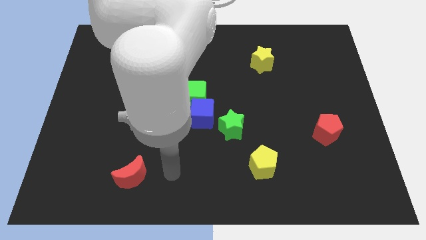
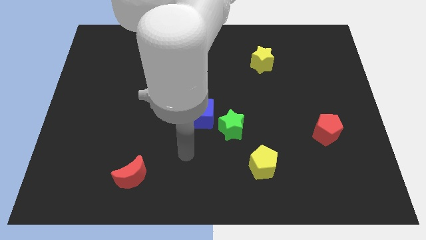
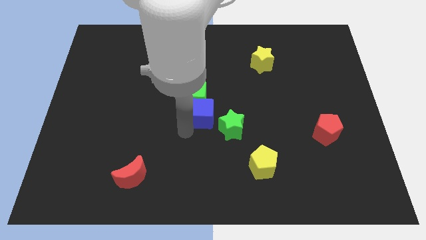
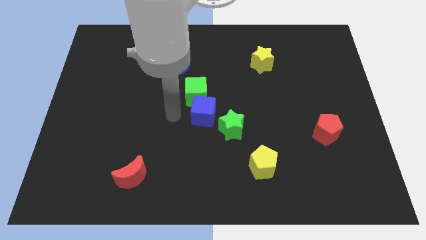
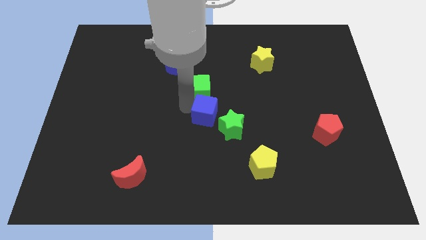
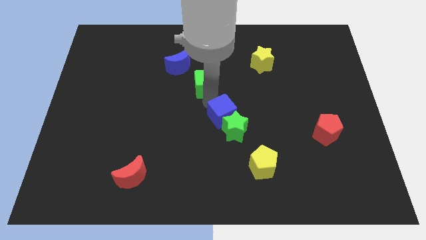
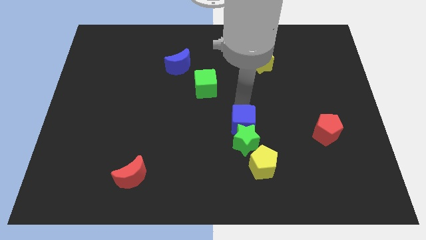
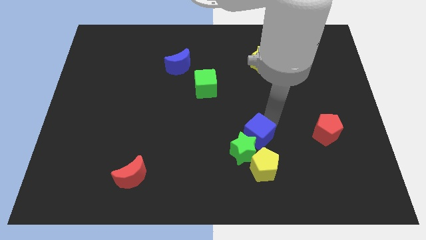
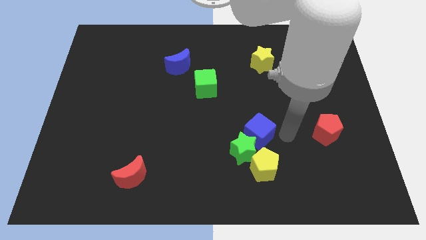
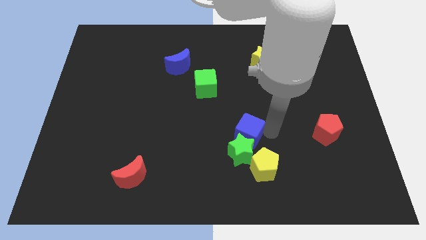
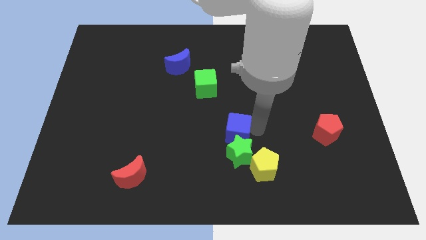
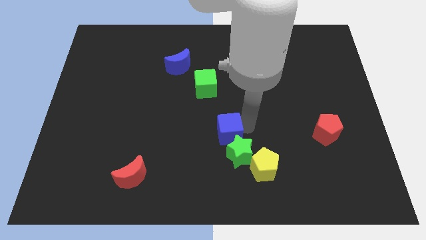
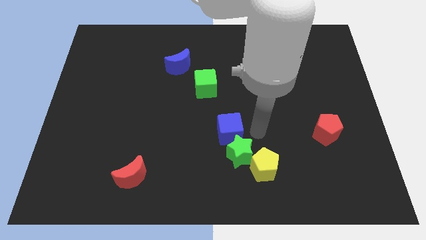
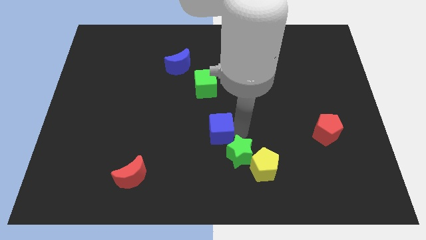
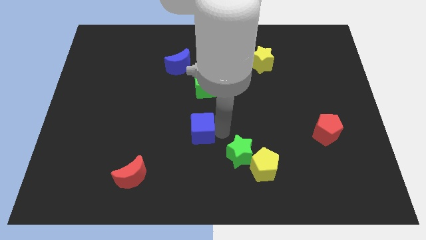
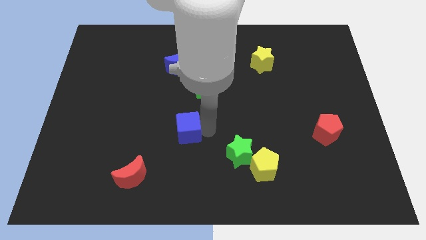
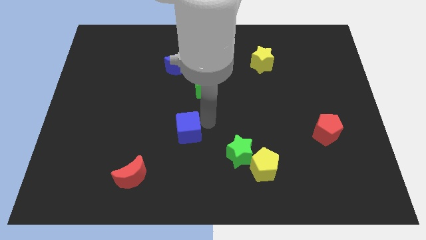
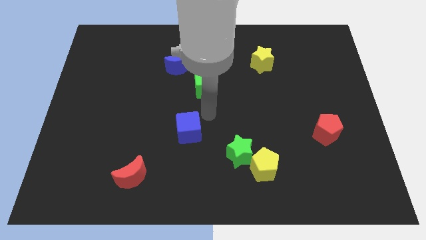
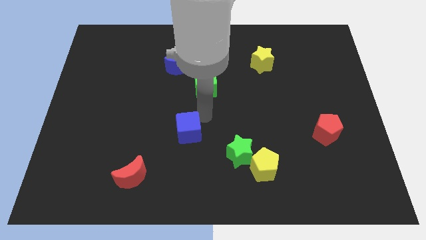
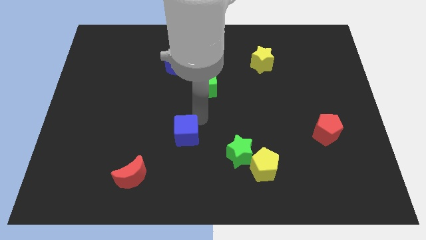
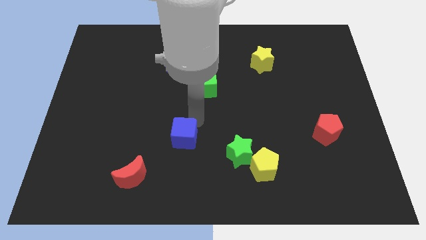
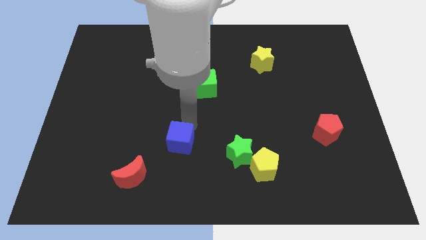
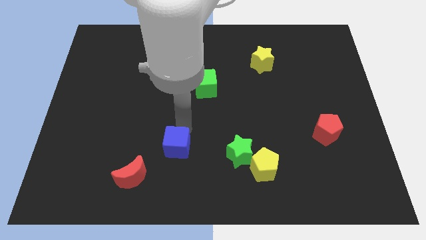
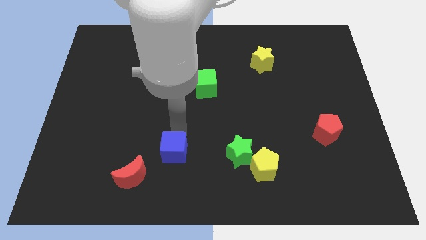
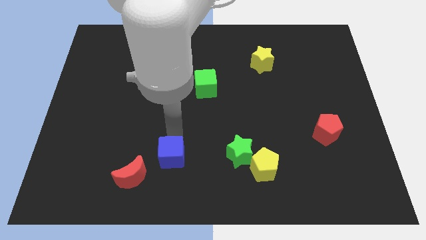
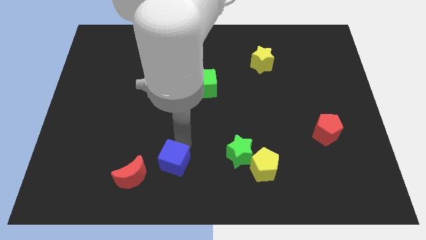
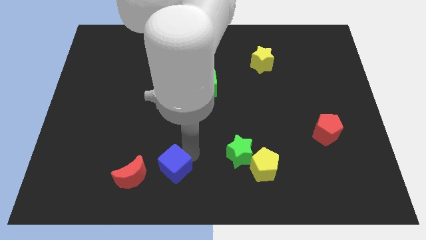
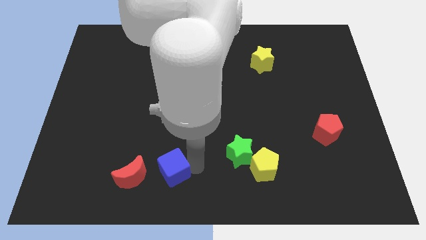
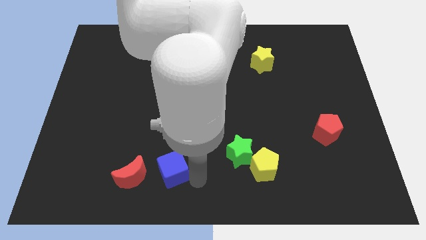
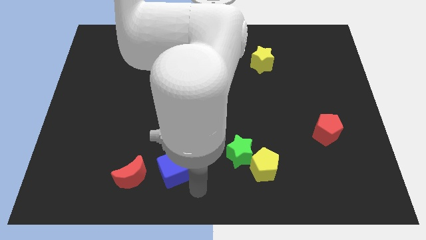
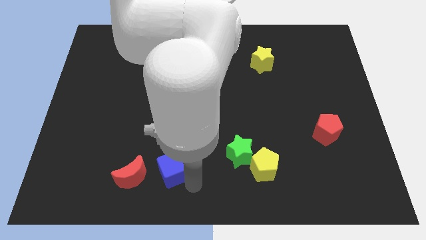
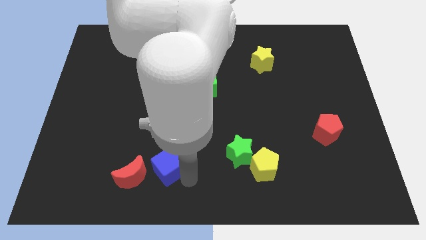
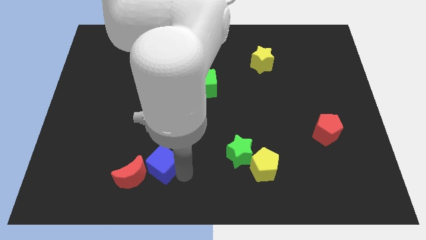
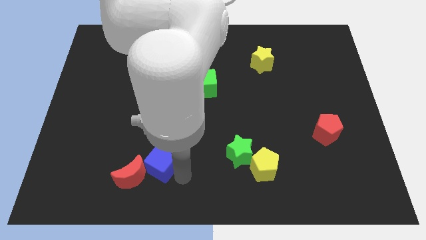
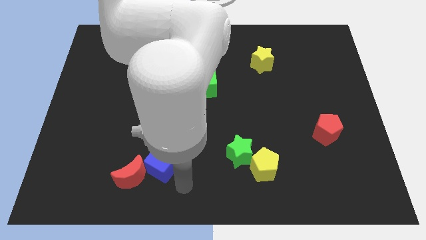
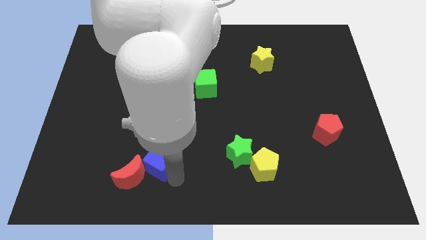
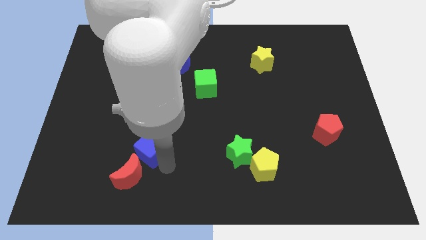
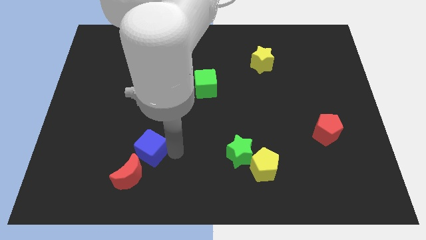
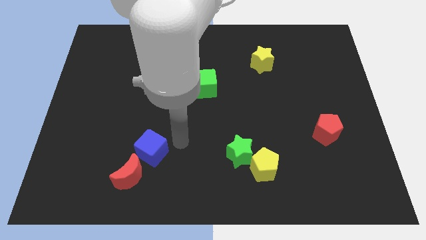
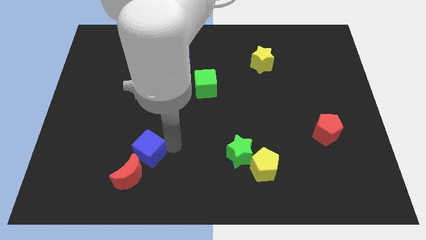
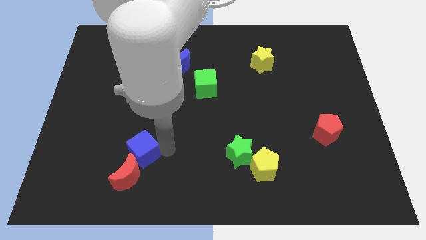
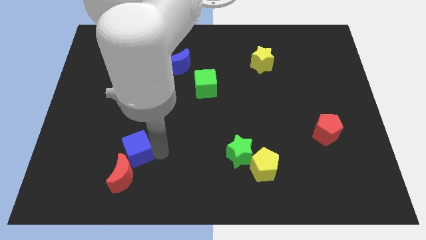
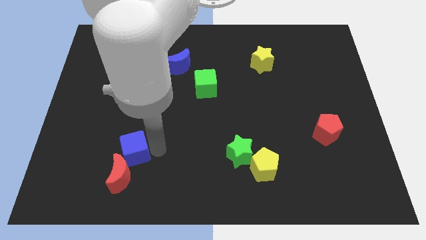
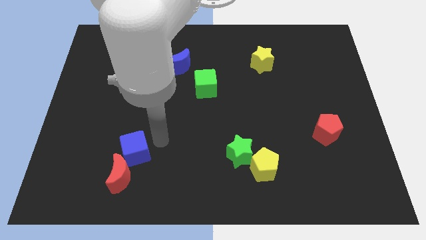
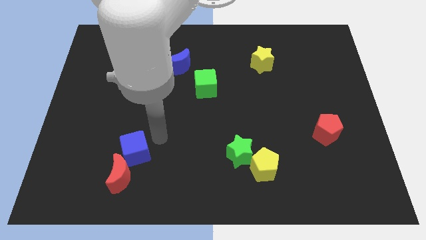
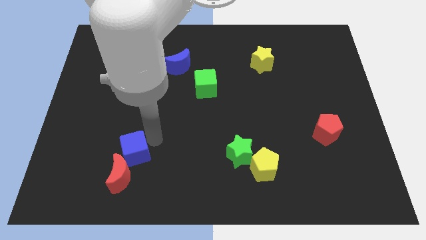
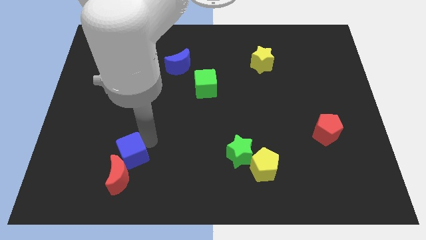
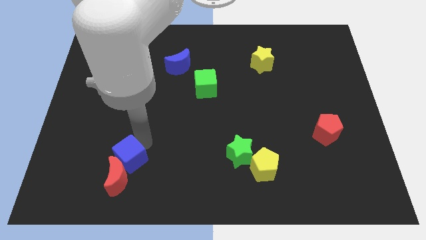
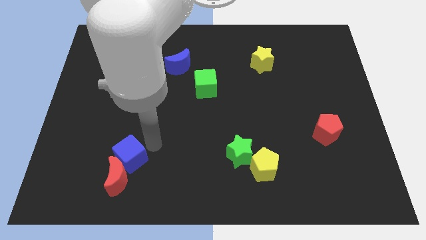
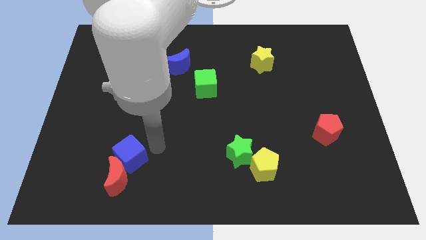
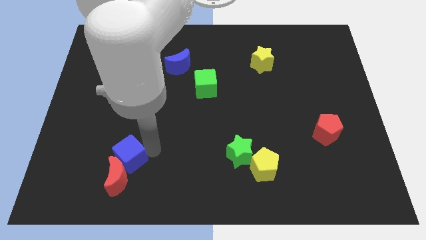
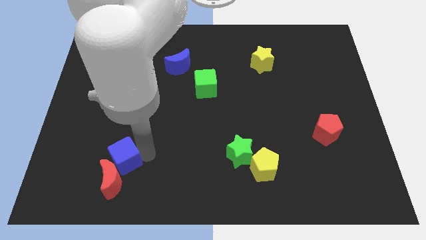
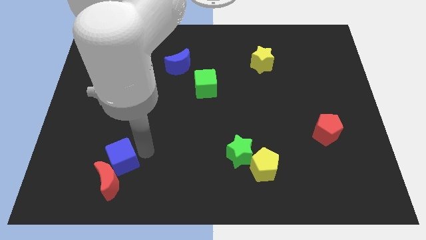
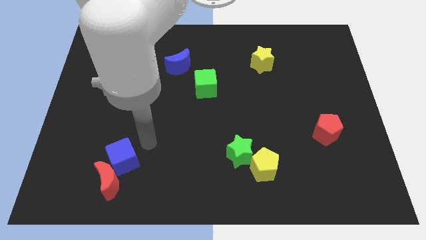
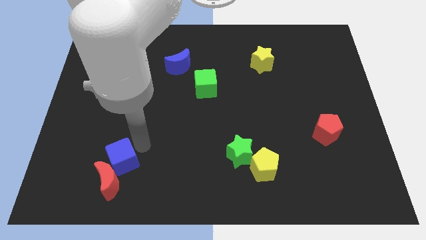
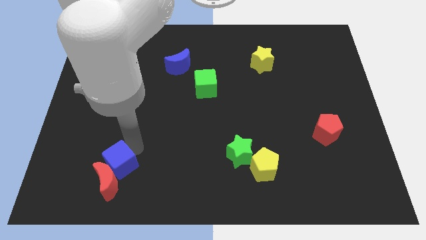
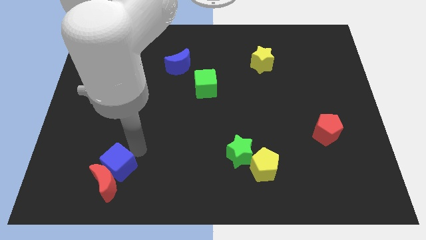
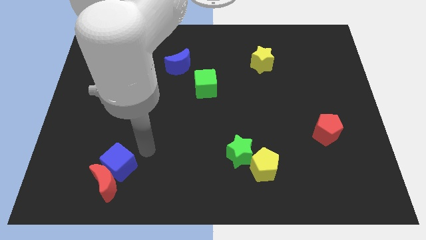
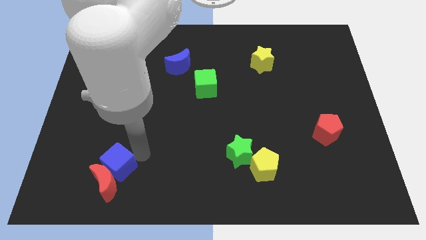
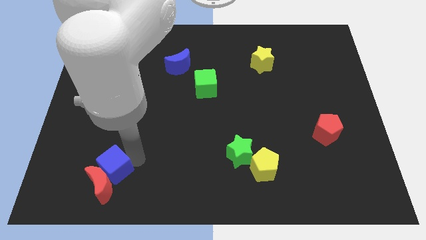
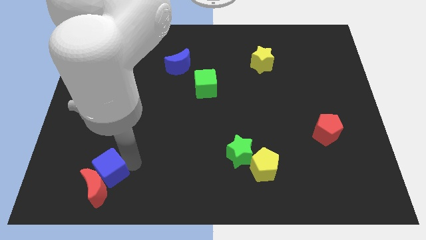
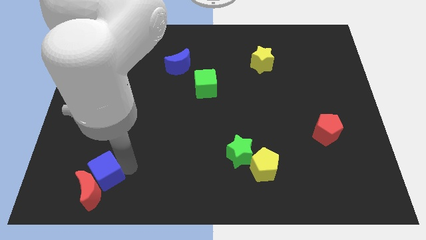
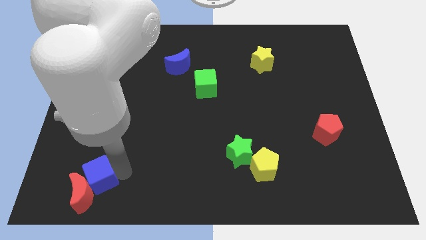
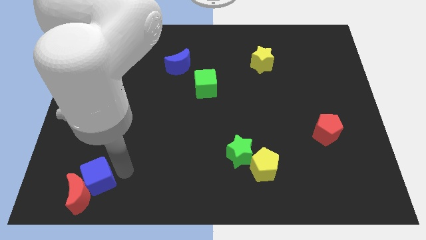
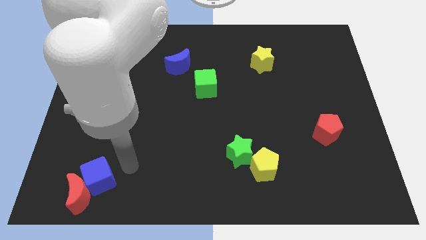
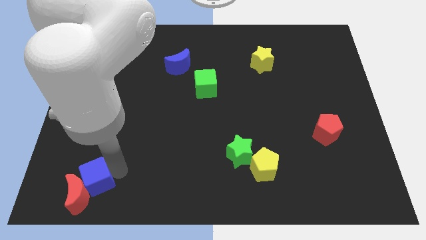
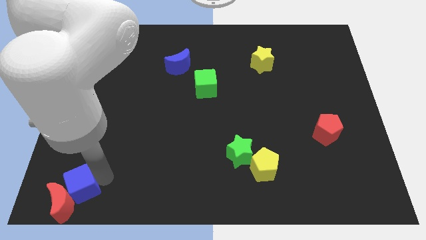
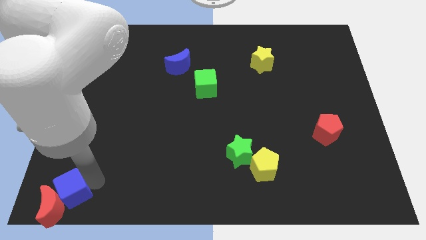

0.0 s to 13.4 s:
push the blue cube to the bottom left

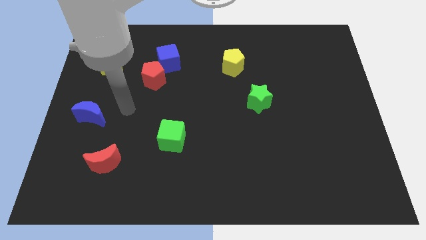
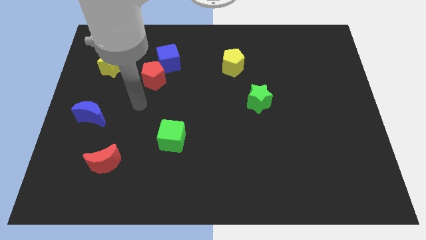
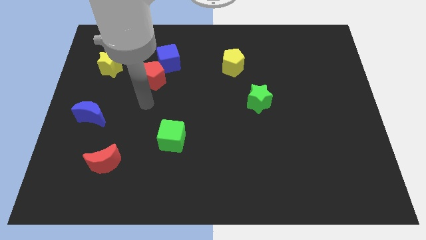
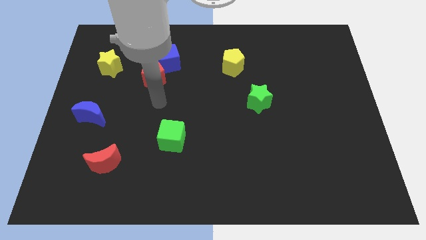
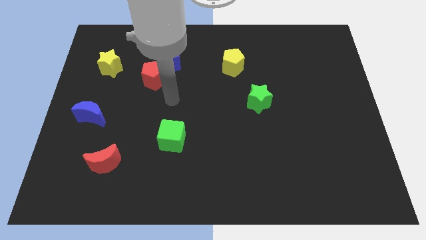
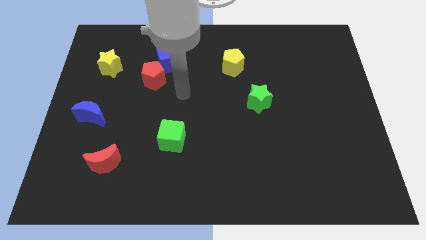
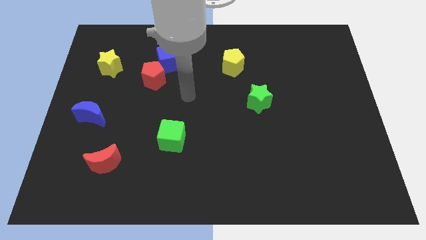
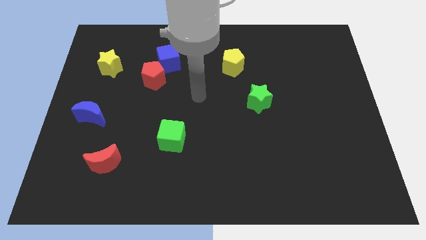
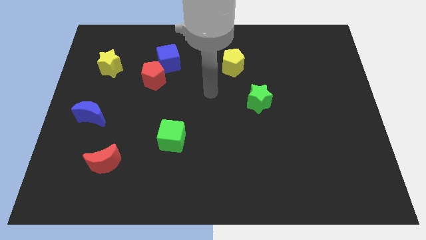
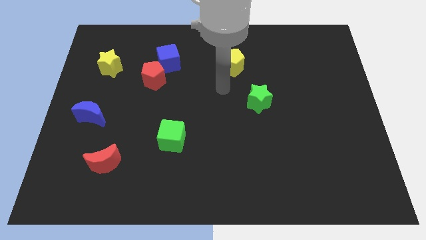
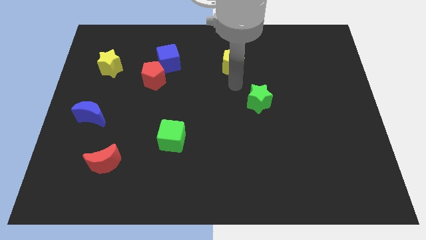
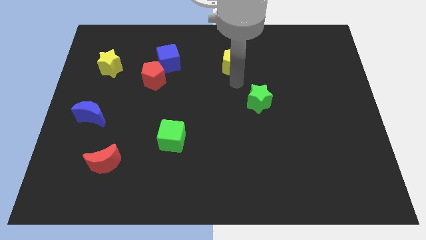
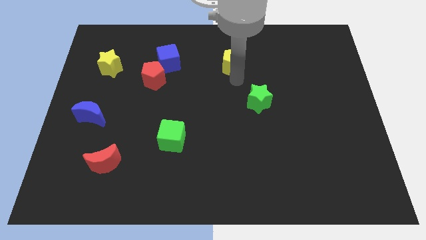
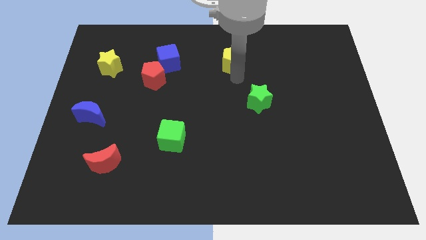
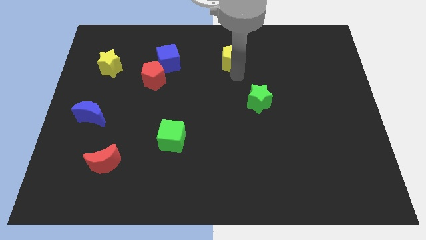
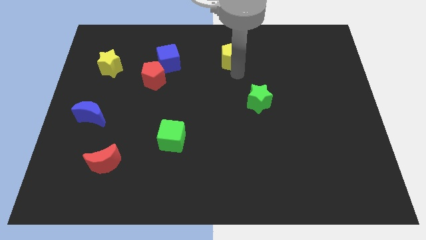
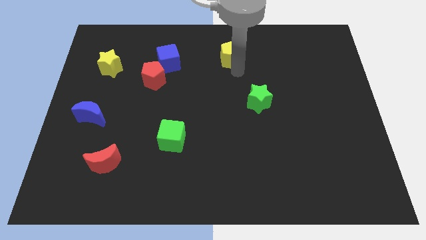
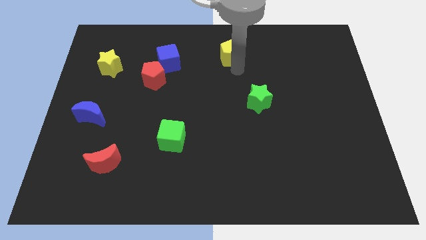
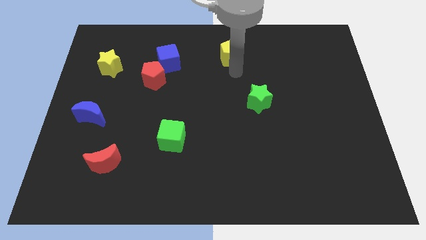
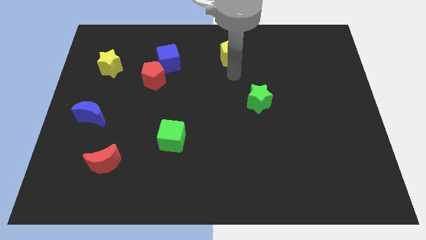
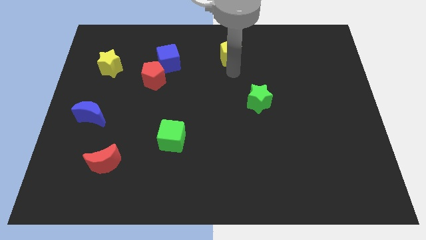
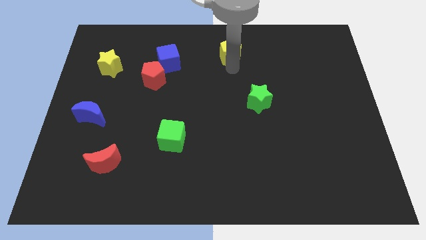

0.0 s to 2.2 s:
move the yellow pentagon to the top
